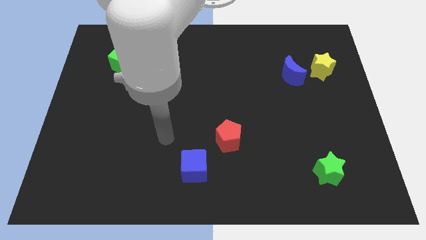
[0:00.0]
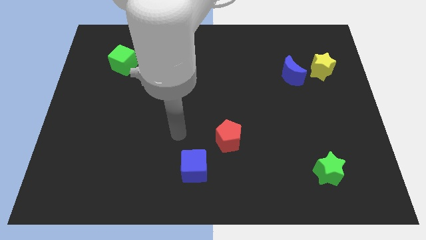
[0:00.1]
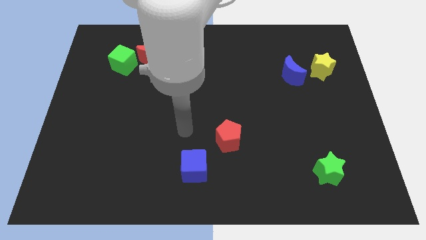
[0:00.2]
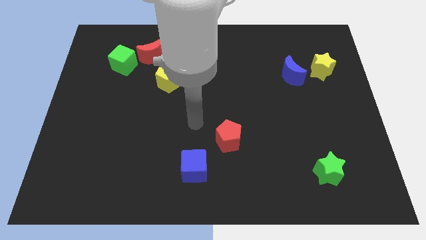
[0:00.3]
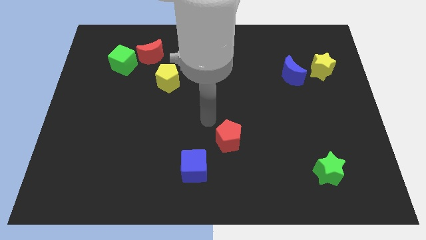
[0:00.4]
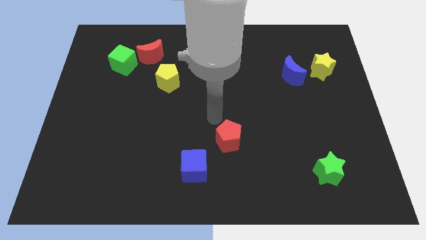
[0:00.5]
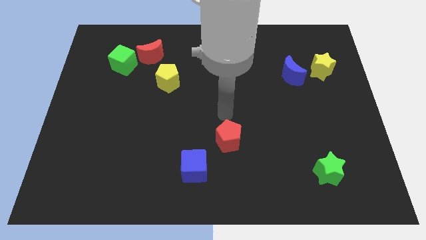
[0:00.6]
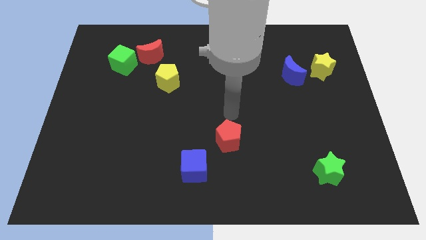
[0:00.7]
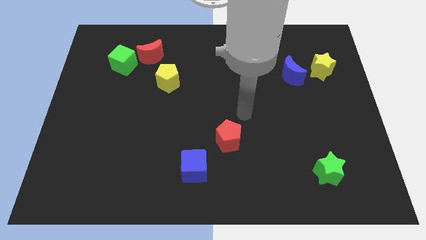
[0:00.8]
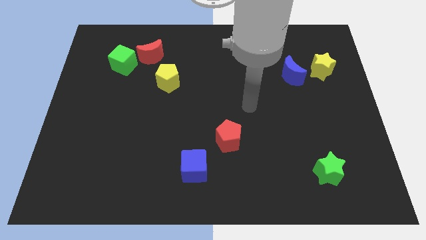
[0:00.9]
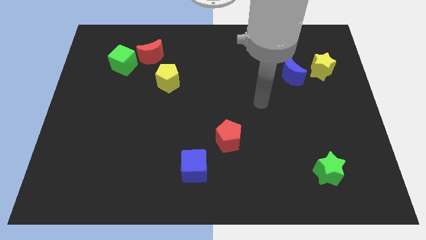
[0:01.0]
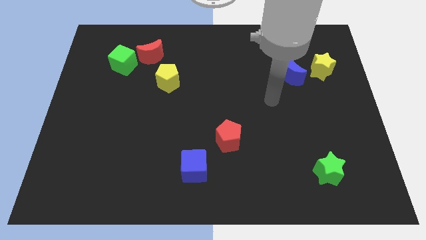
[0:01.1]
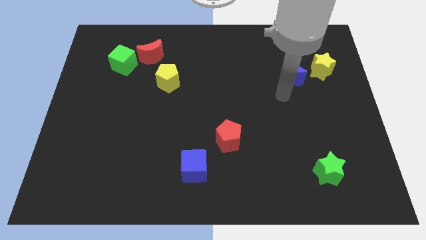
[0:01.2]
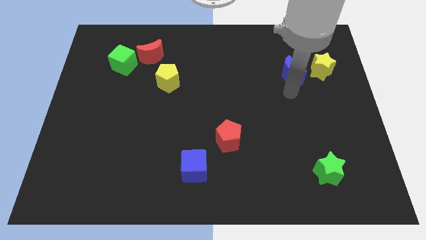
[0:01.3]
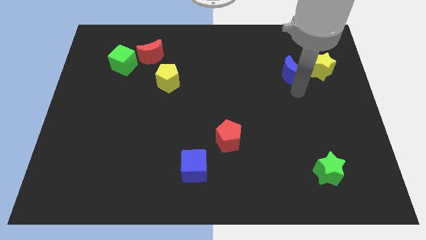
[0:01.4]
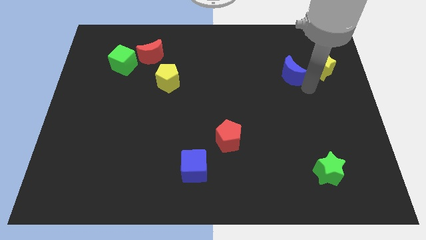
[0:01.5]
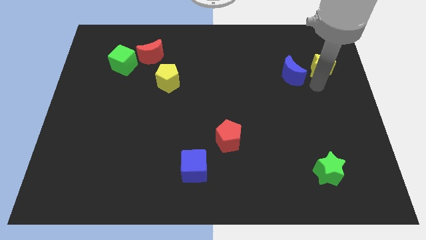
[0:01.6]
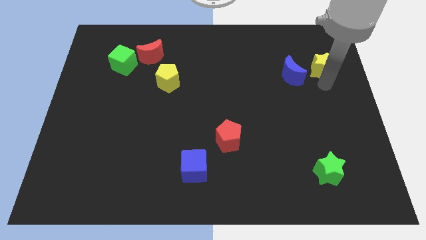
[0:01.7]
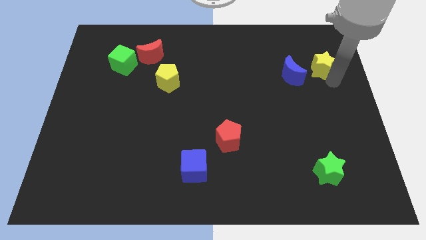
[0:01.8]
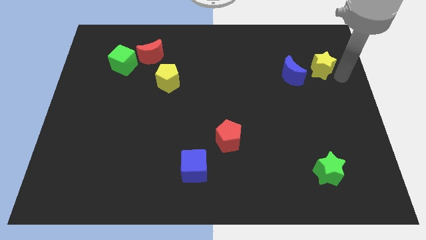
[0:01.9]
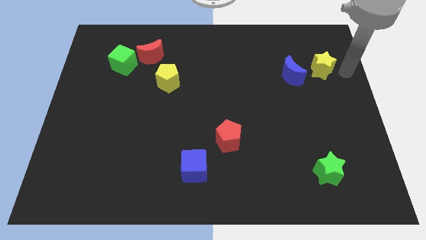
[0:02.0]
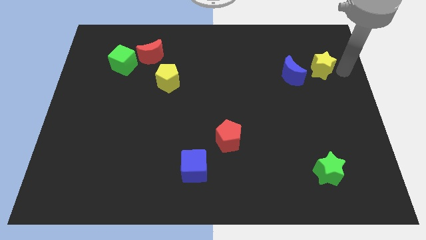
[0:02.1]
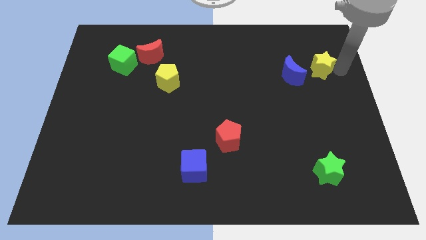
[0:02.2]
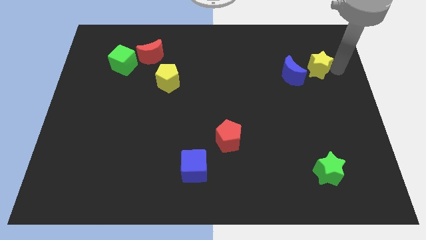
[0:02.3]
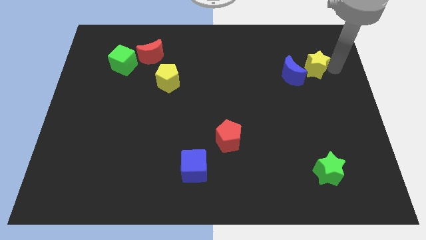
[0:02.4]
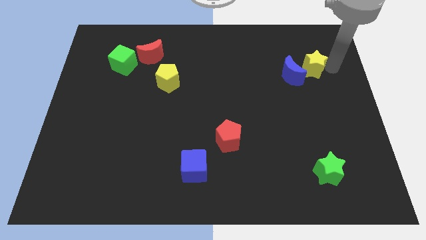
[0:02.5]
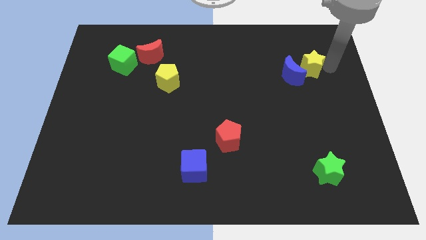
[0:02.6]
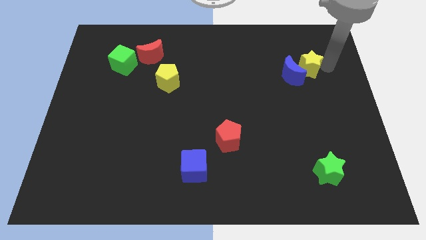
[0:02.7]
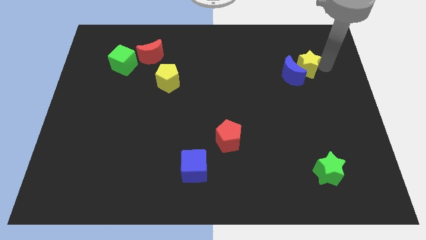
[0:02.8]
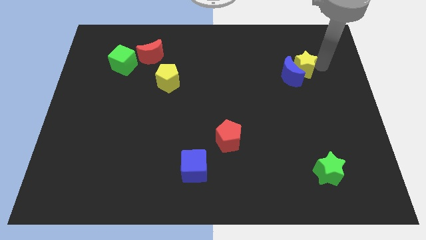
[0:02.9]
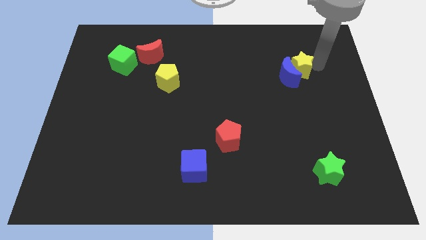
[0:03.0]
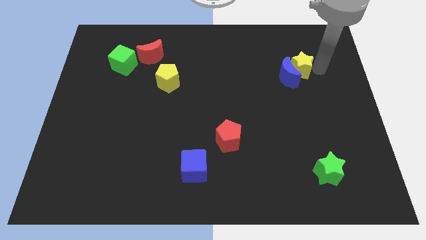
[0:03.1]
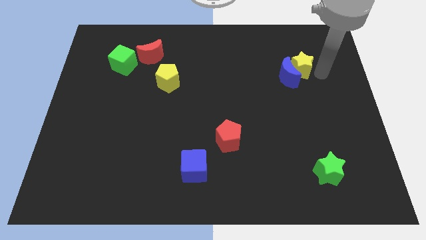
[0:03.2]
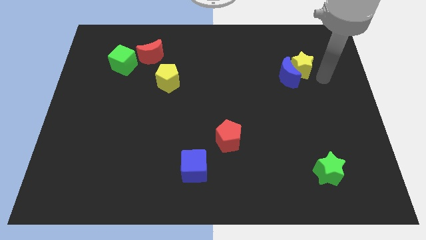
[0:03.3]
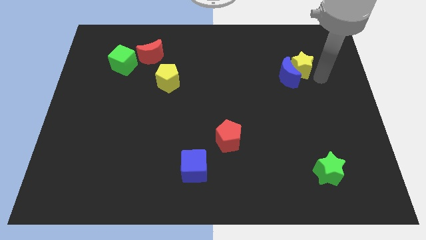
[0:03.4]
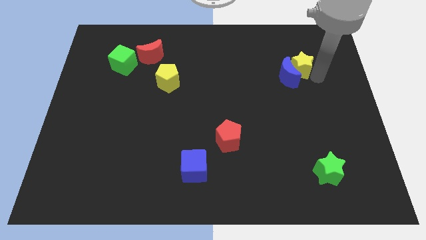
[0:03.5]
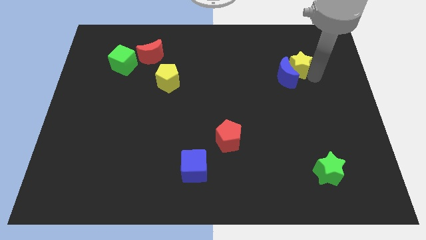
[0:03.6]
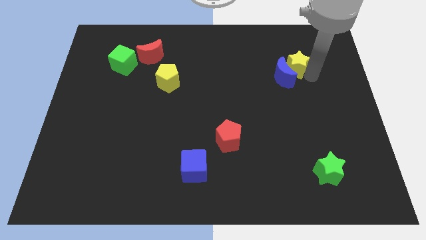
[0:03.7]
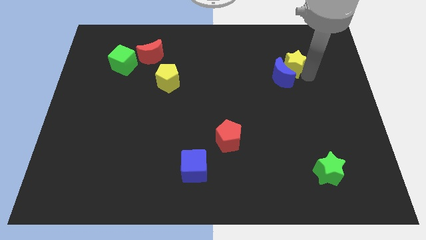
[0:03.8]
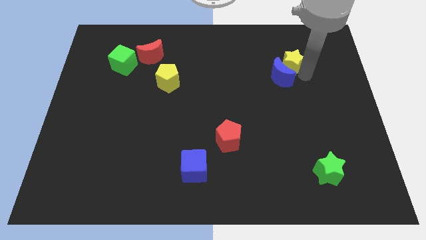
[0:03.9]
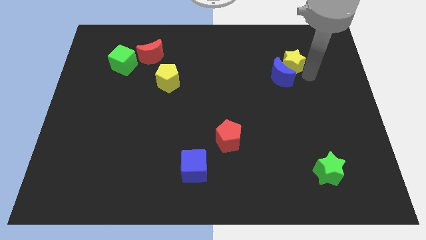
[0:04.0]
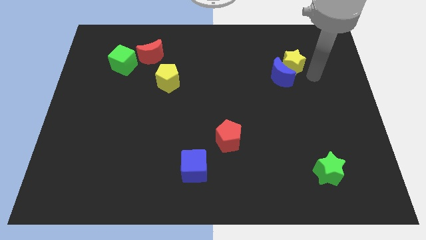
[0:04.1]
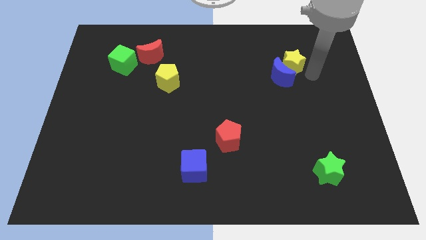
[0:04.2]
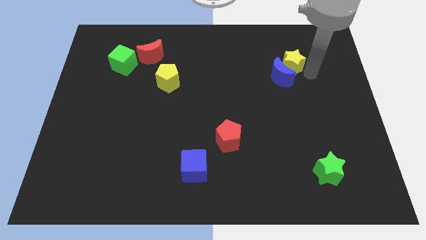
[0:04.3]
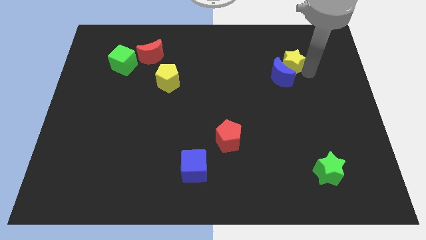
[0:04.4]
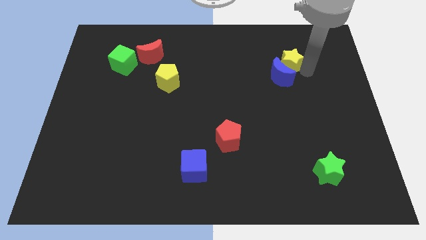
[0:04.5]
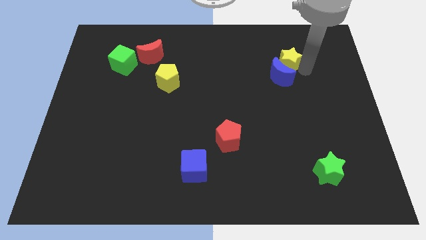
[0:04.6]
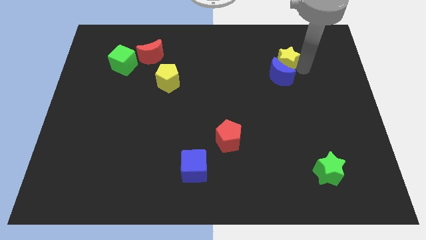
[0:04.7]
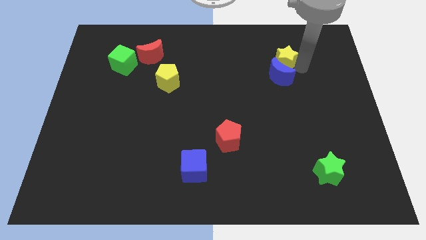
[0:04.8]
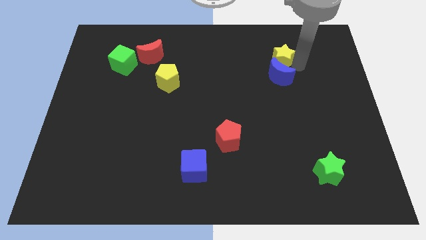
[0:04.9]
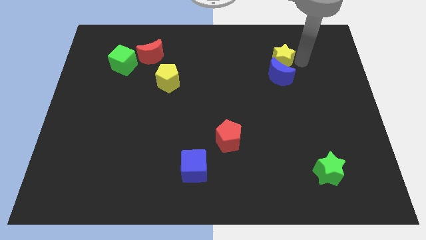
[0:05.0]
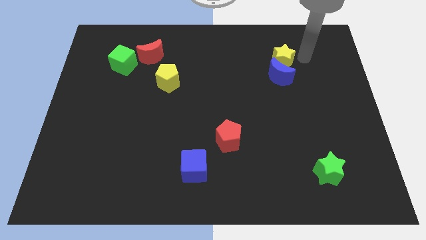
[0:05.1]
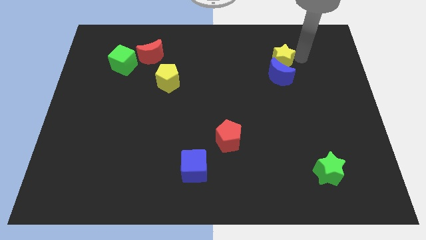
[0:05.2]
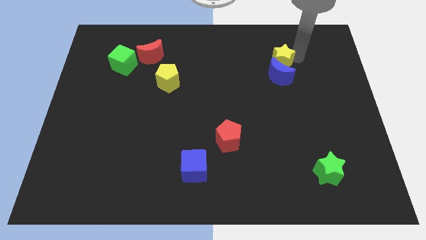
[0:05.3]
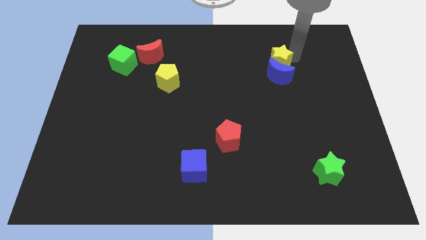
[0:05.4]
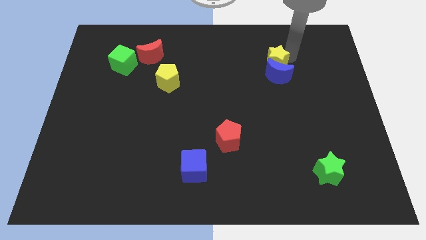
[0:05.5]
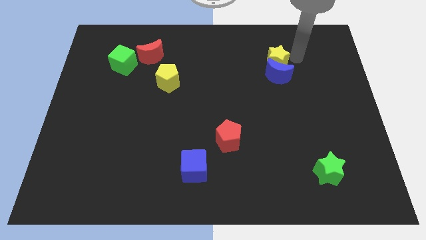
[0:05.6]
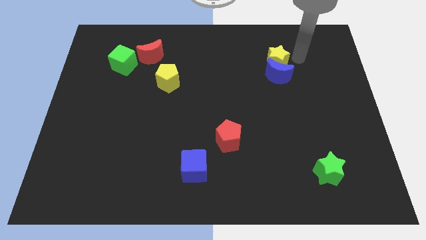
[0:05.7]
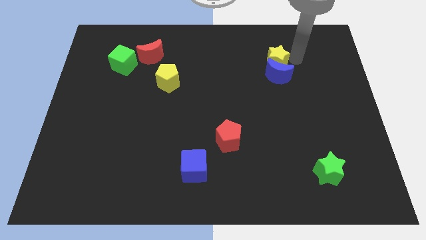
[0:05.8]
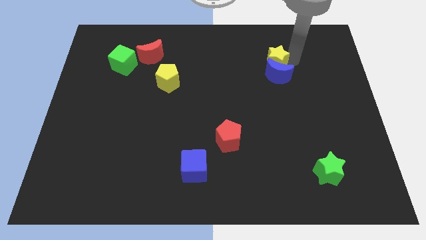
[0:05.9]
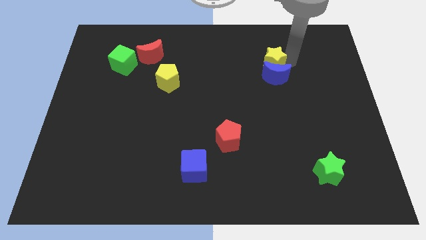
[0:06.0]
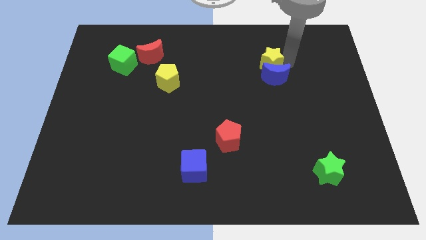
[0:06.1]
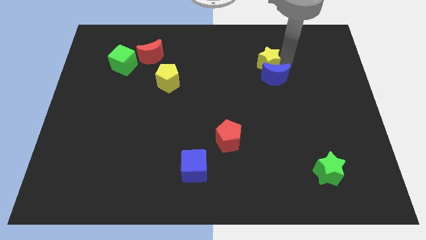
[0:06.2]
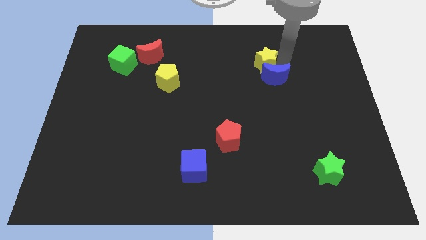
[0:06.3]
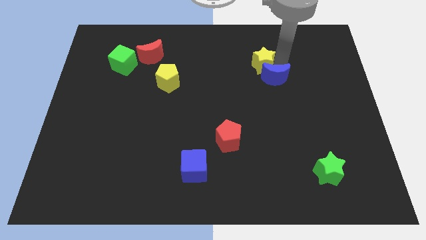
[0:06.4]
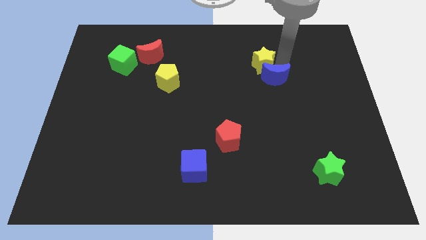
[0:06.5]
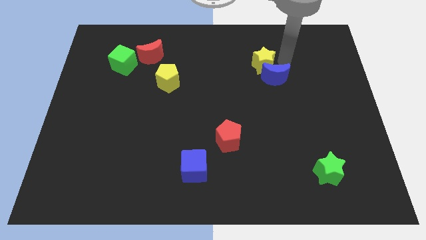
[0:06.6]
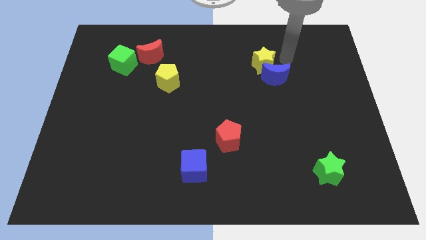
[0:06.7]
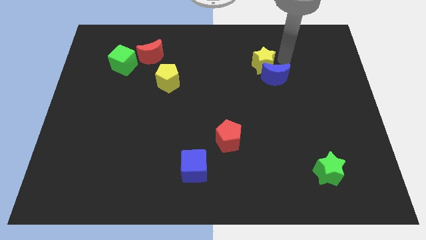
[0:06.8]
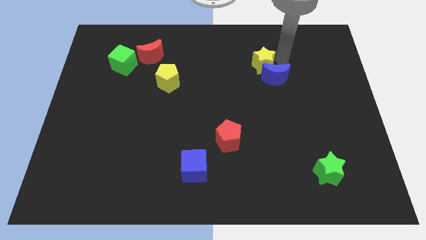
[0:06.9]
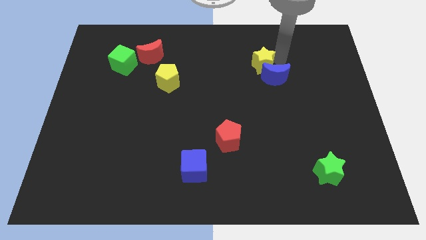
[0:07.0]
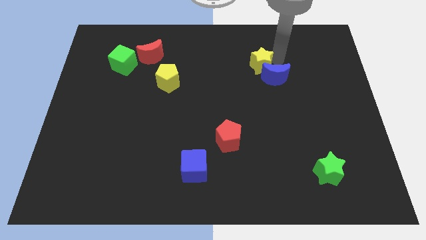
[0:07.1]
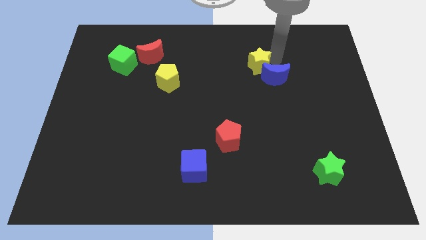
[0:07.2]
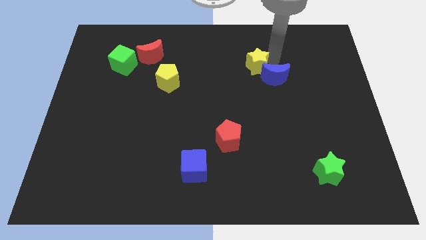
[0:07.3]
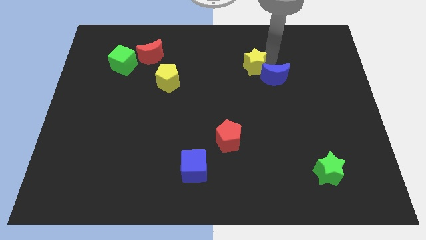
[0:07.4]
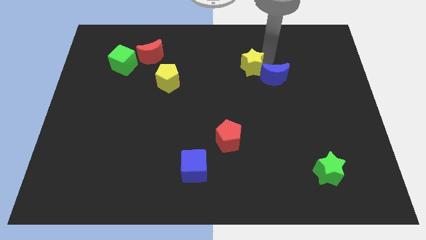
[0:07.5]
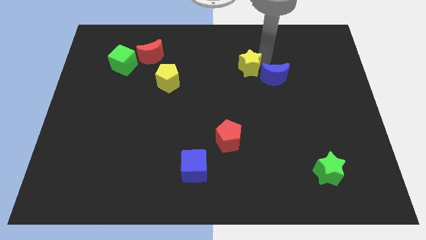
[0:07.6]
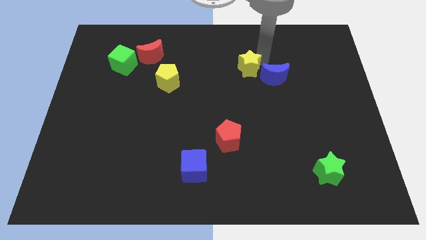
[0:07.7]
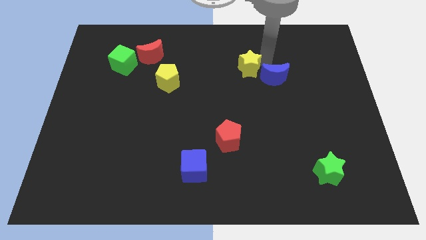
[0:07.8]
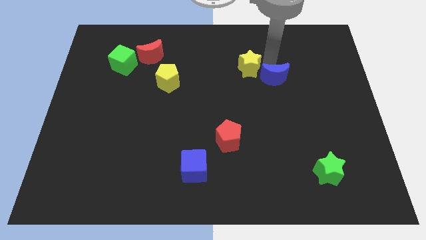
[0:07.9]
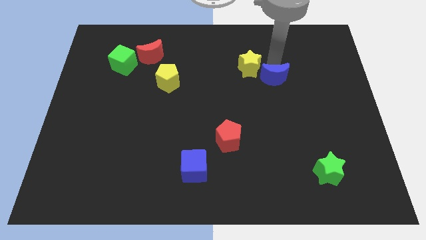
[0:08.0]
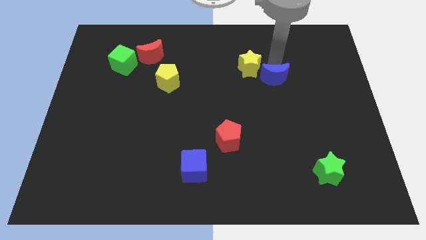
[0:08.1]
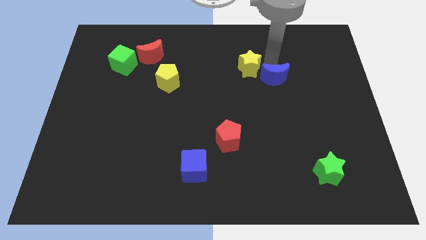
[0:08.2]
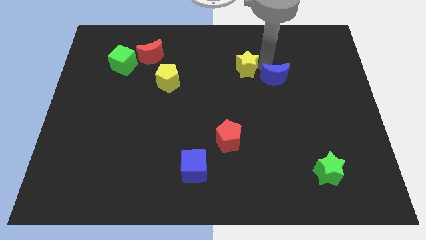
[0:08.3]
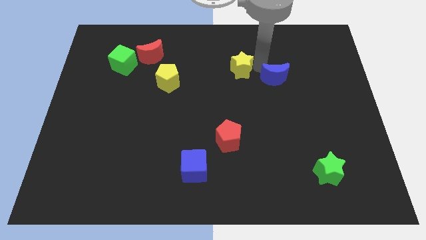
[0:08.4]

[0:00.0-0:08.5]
move the yellow star to the left
